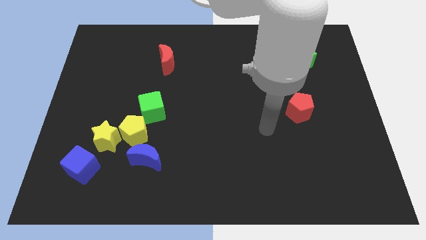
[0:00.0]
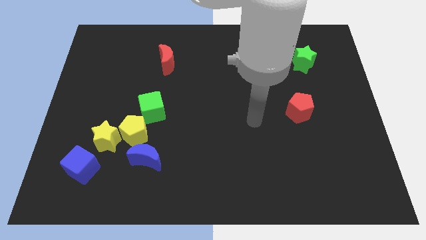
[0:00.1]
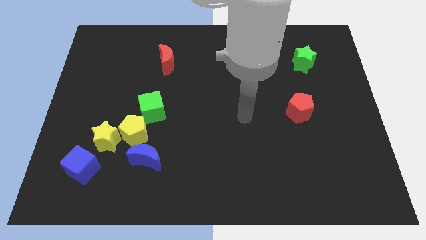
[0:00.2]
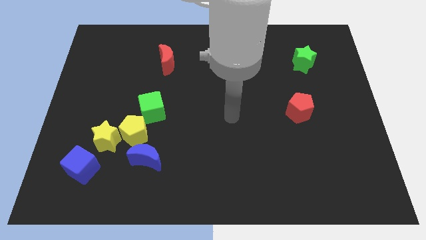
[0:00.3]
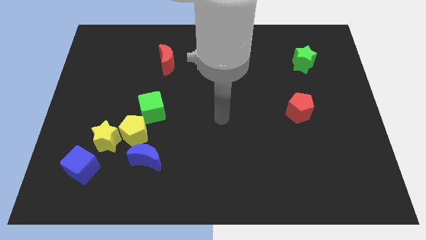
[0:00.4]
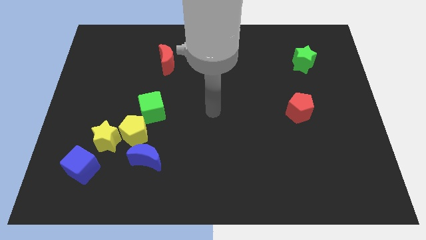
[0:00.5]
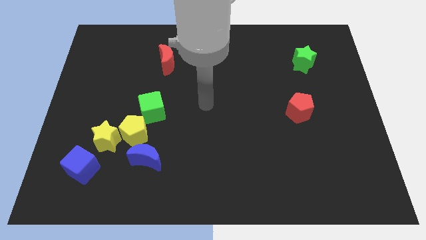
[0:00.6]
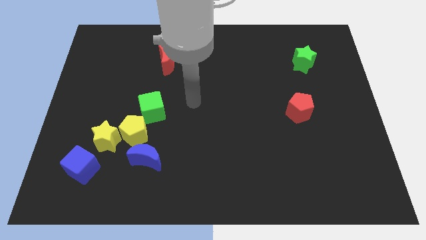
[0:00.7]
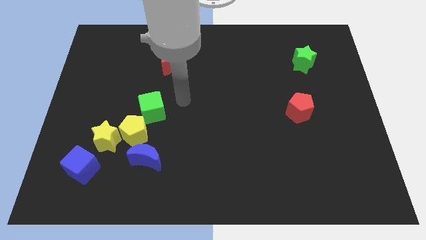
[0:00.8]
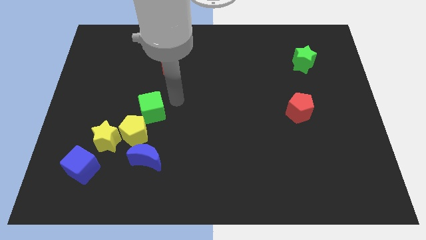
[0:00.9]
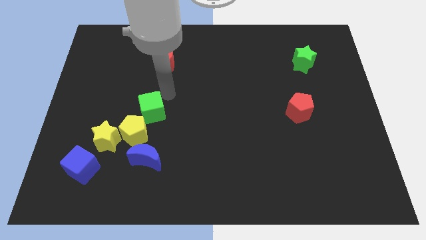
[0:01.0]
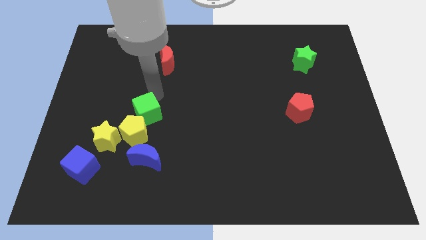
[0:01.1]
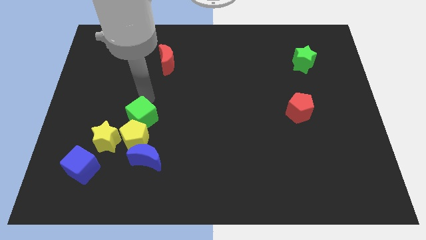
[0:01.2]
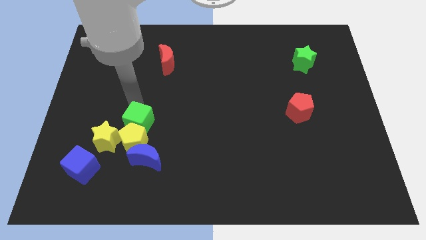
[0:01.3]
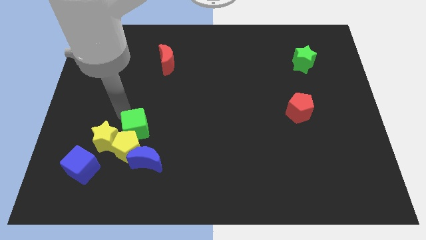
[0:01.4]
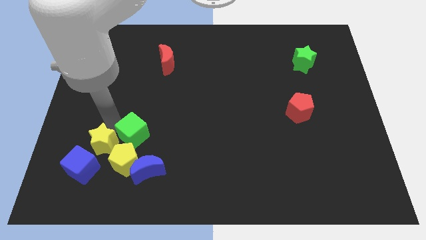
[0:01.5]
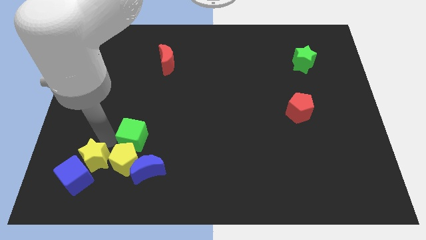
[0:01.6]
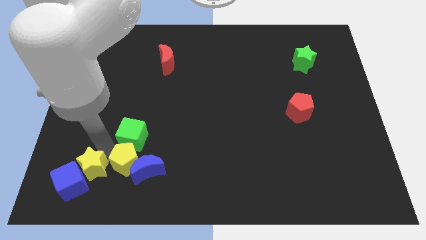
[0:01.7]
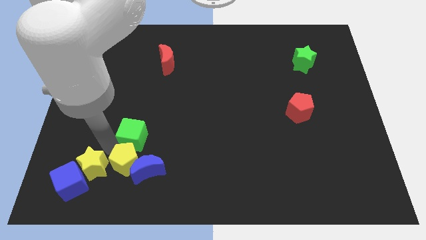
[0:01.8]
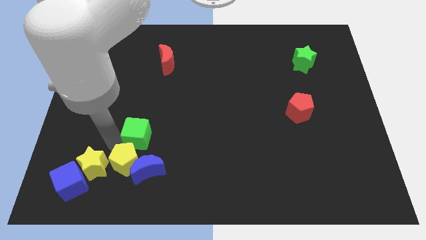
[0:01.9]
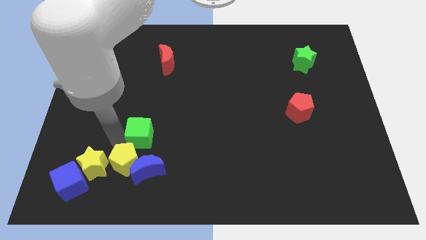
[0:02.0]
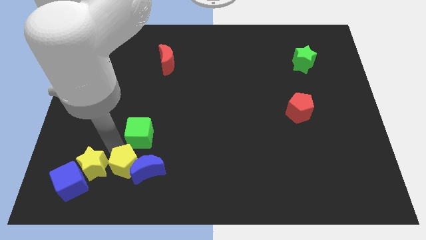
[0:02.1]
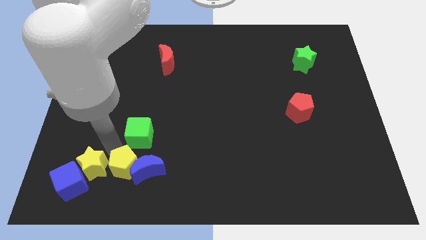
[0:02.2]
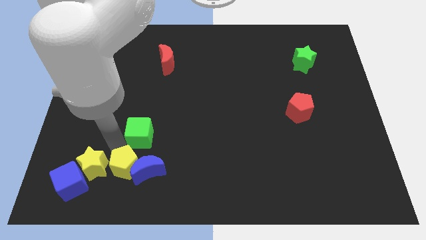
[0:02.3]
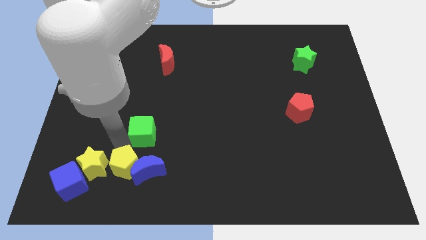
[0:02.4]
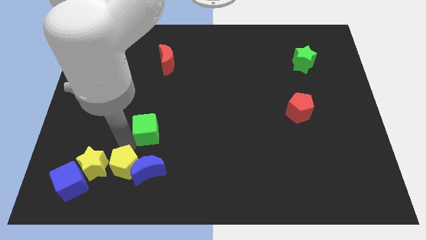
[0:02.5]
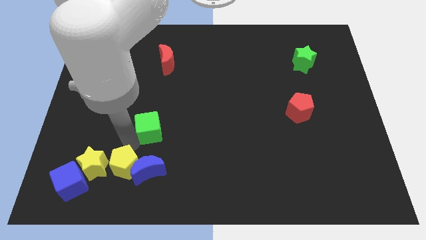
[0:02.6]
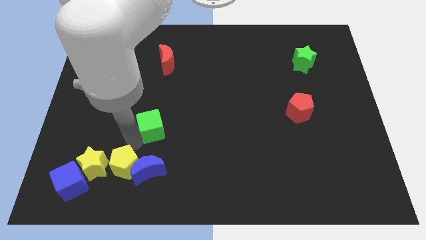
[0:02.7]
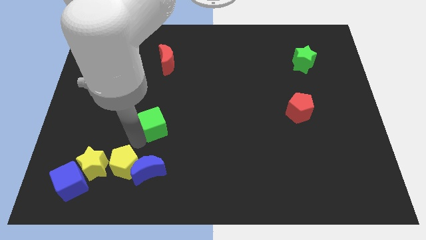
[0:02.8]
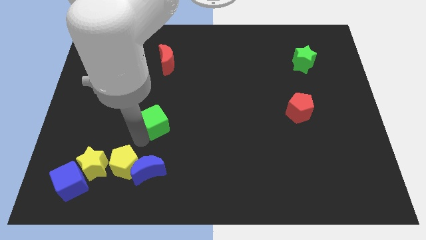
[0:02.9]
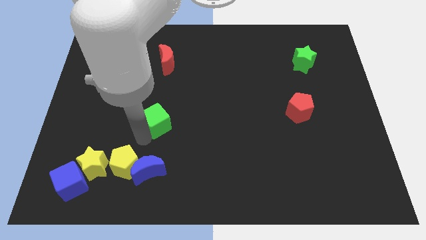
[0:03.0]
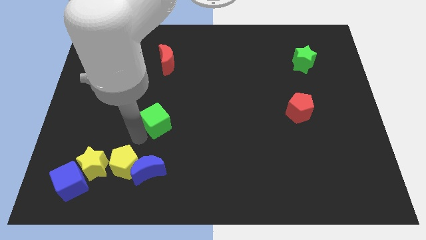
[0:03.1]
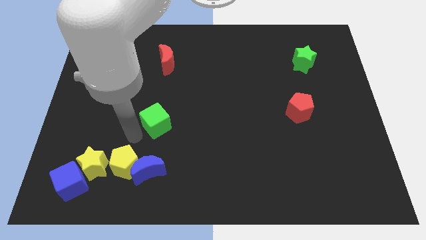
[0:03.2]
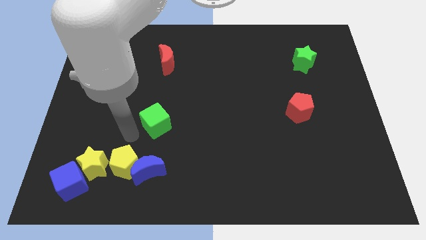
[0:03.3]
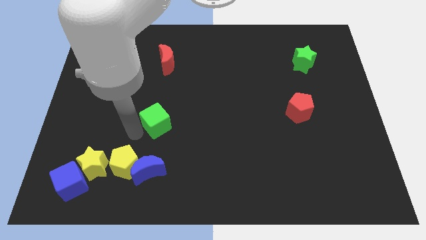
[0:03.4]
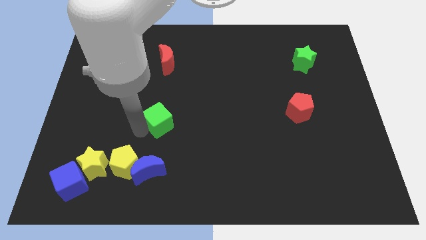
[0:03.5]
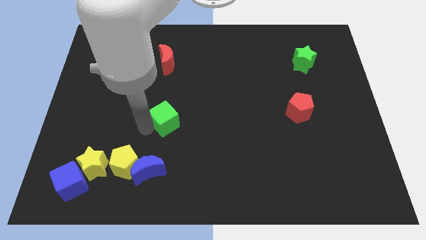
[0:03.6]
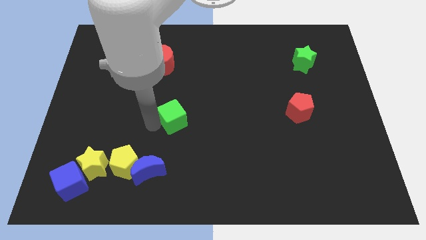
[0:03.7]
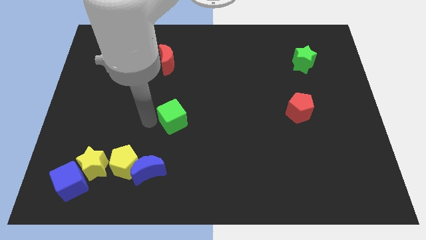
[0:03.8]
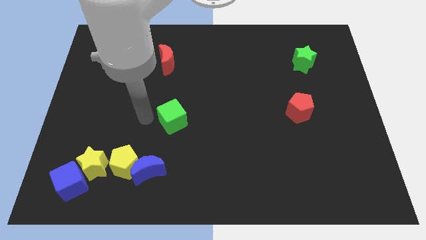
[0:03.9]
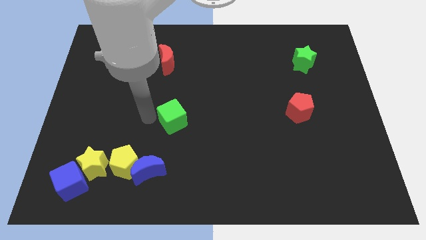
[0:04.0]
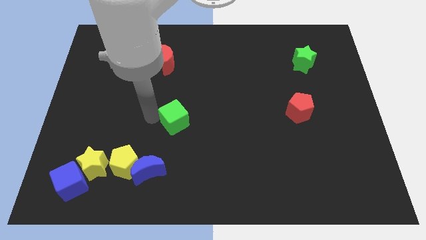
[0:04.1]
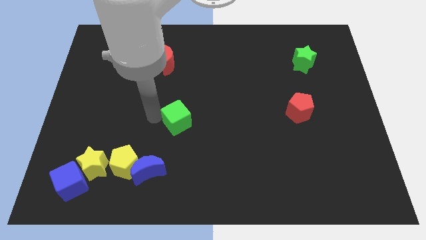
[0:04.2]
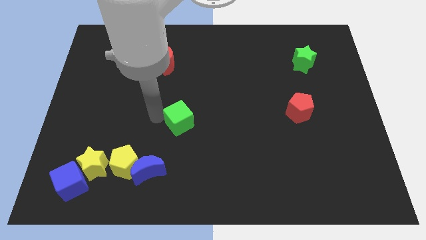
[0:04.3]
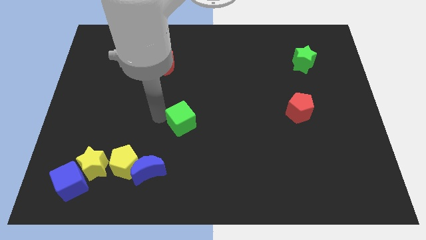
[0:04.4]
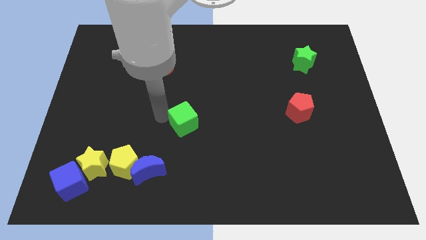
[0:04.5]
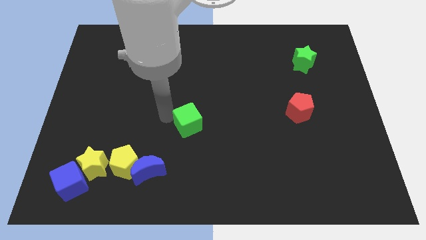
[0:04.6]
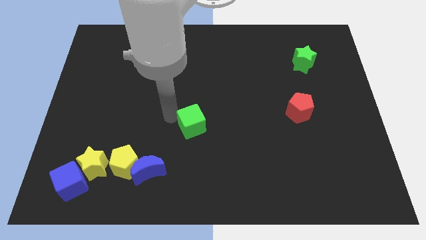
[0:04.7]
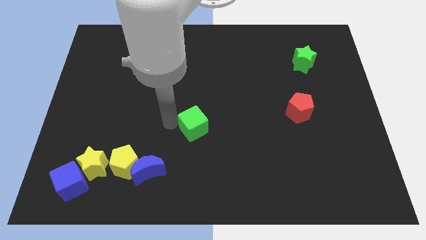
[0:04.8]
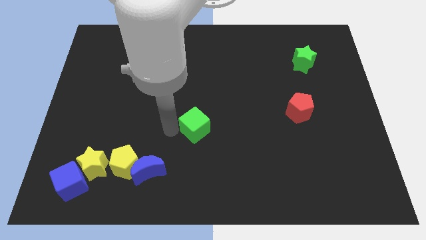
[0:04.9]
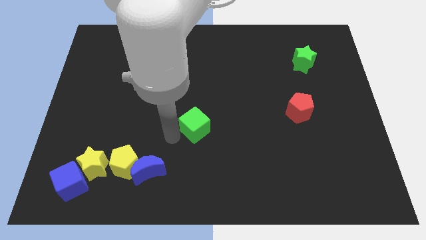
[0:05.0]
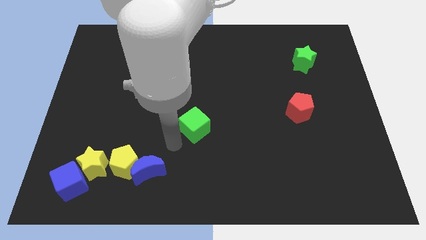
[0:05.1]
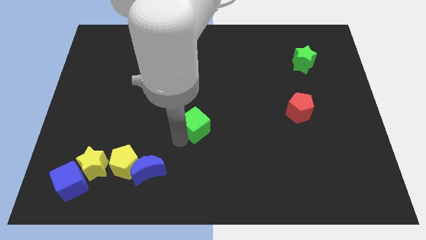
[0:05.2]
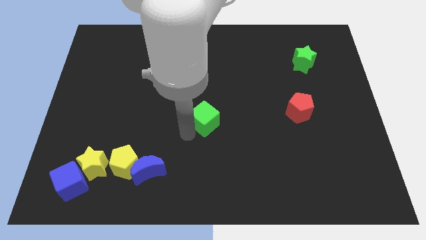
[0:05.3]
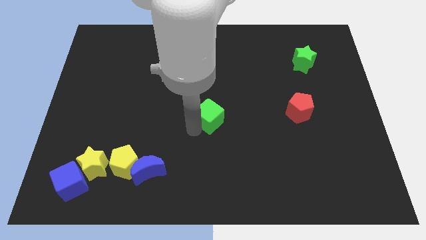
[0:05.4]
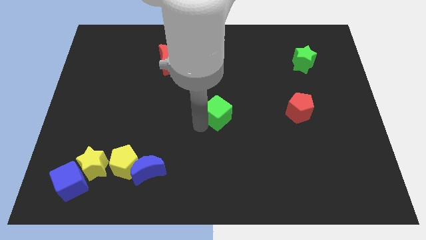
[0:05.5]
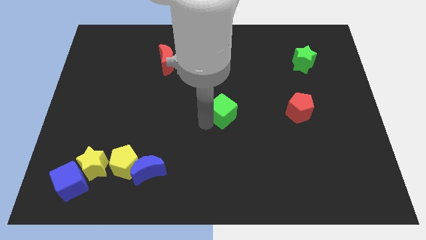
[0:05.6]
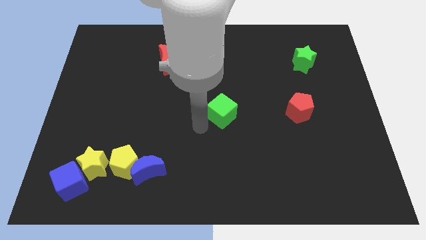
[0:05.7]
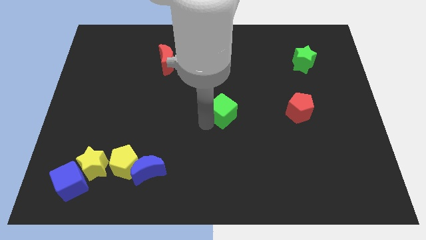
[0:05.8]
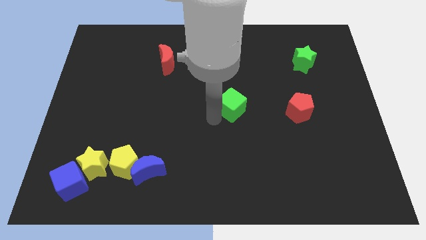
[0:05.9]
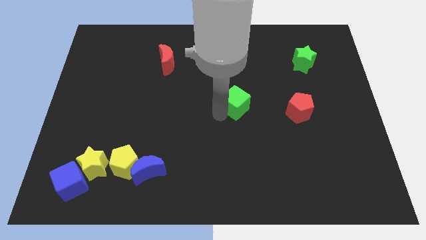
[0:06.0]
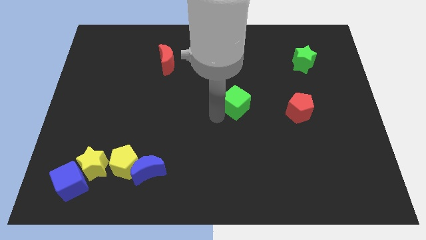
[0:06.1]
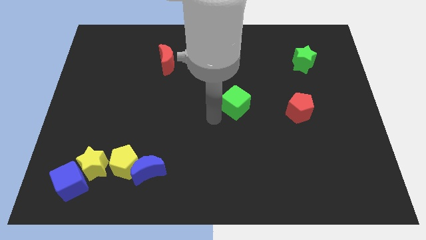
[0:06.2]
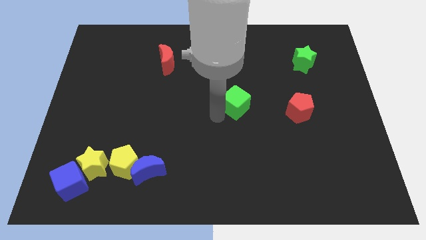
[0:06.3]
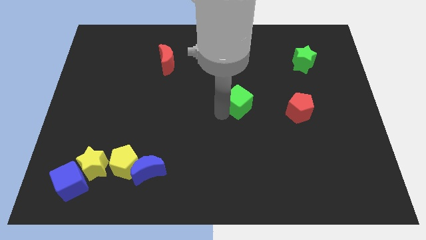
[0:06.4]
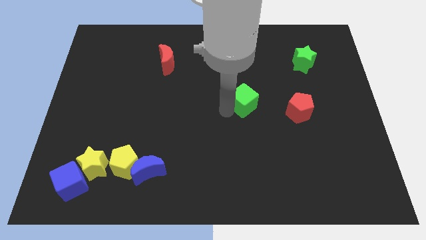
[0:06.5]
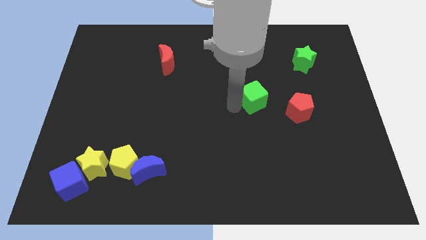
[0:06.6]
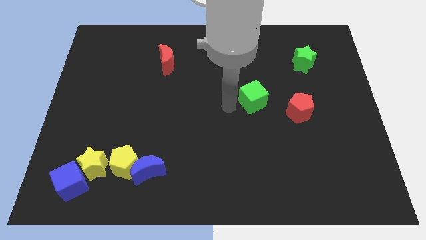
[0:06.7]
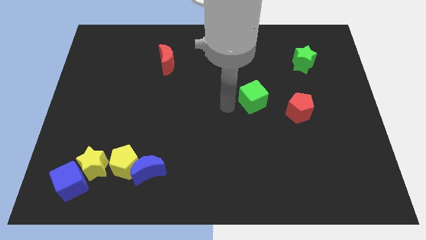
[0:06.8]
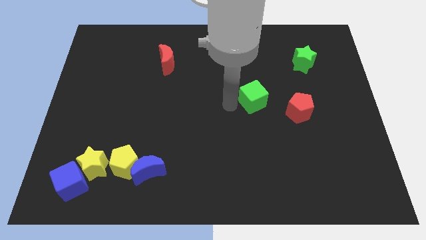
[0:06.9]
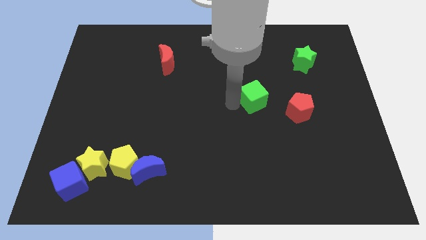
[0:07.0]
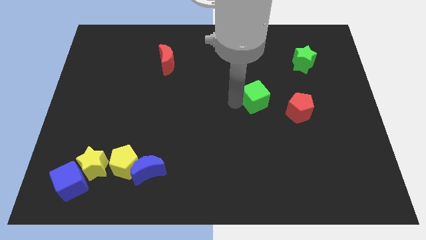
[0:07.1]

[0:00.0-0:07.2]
slide the green cube to the top left of the red pentagon

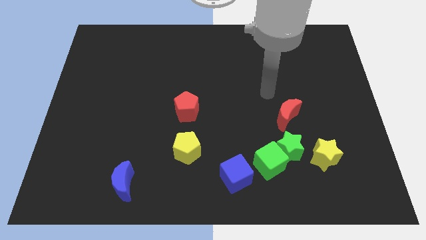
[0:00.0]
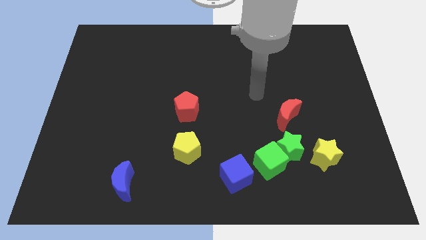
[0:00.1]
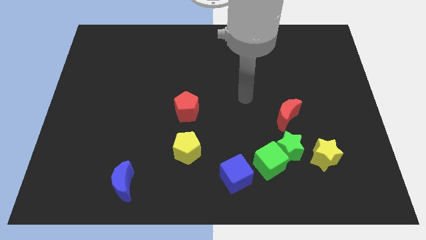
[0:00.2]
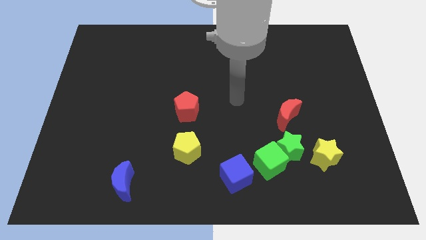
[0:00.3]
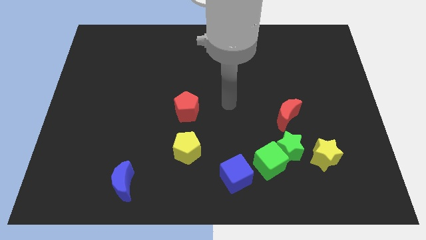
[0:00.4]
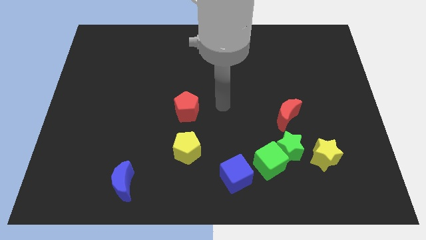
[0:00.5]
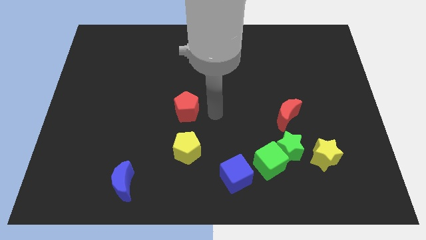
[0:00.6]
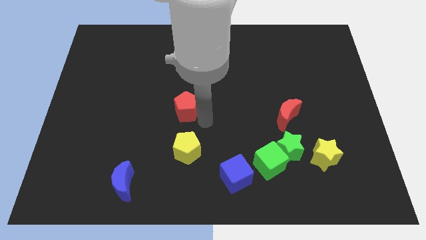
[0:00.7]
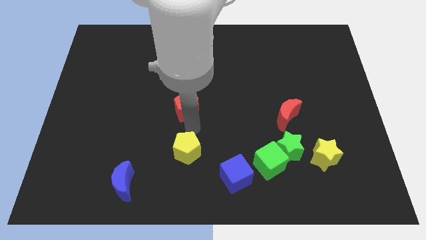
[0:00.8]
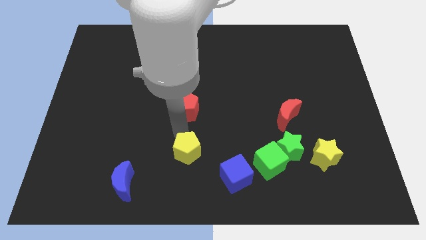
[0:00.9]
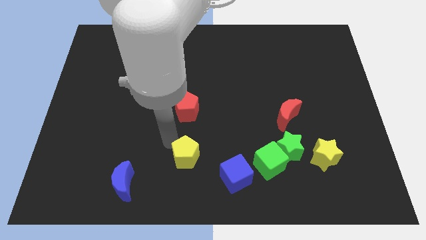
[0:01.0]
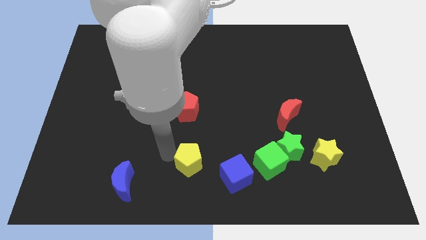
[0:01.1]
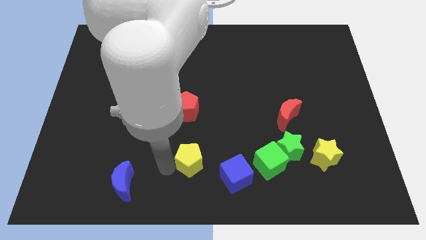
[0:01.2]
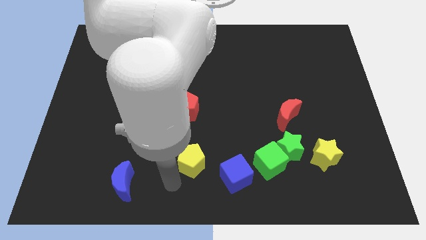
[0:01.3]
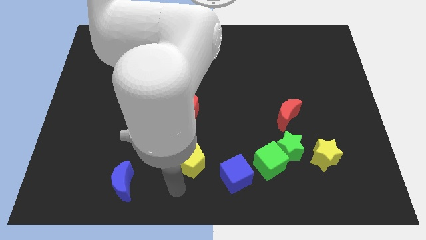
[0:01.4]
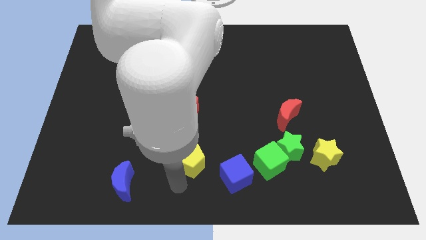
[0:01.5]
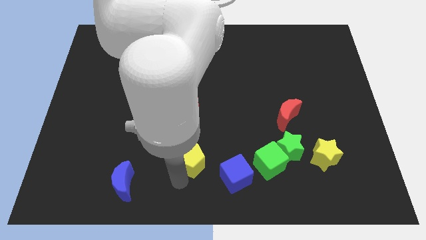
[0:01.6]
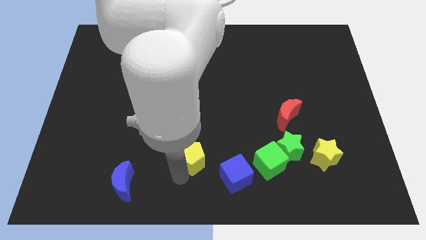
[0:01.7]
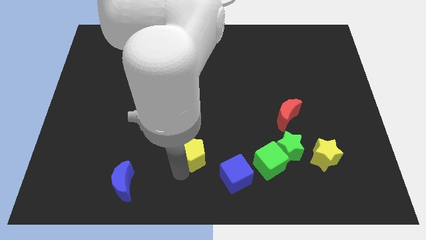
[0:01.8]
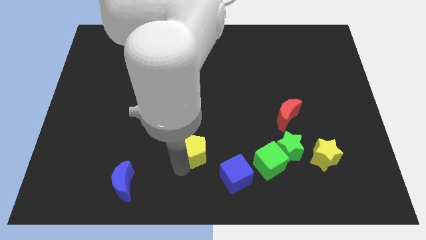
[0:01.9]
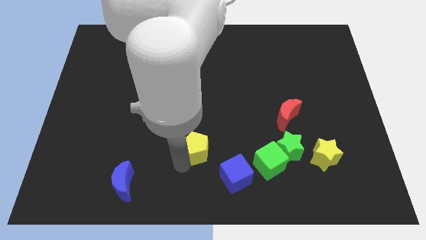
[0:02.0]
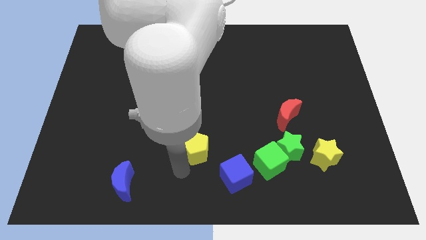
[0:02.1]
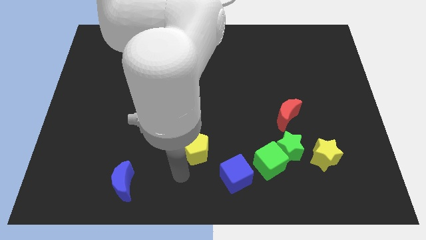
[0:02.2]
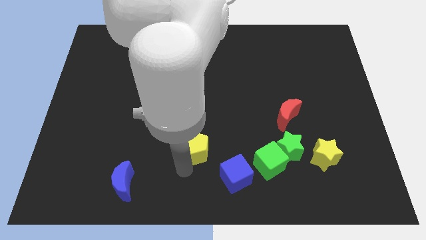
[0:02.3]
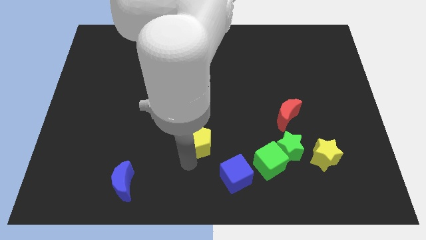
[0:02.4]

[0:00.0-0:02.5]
put the yellow pentagon to the bottom right of the red pentagon
